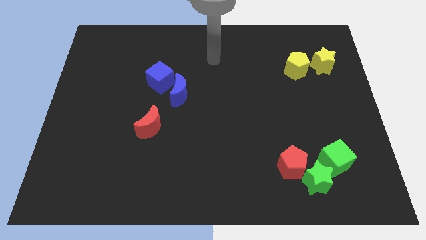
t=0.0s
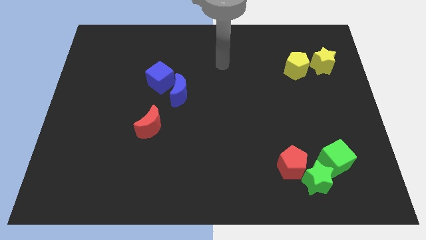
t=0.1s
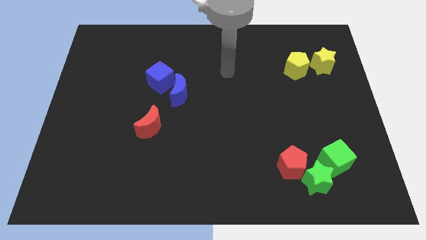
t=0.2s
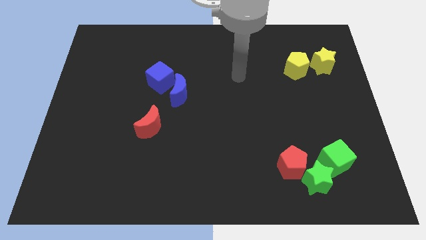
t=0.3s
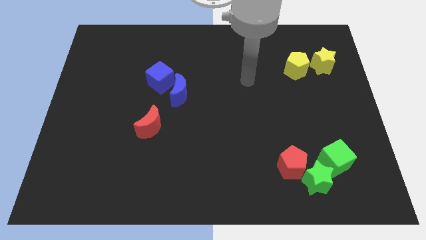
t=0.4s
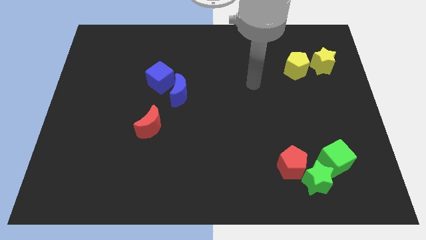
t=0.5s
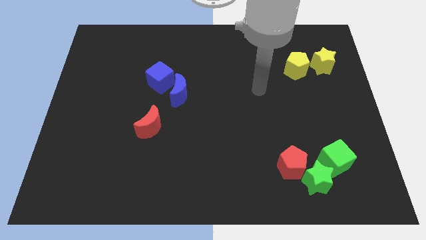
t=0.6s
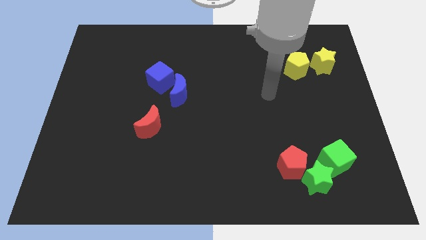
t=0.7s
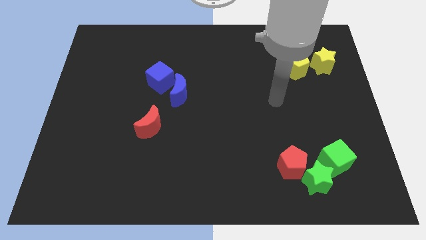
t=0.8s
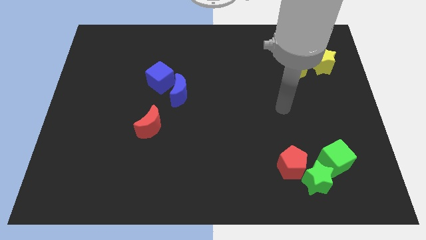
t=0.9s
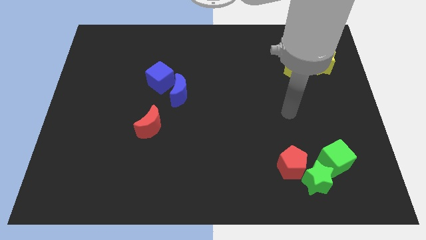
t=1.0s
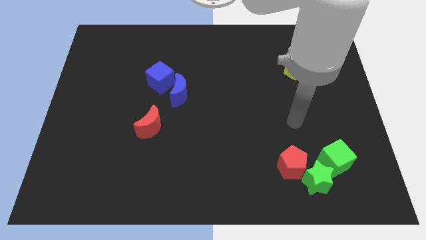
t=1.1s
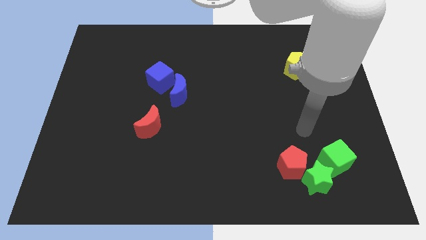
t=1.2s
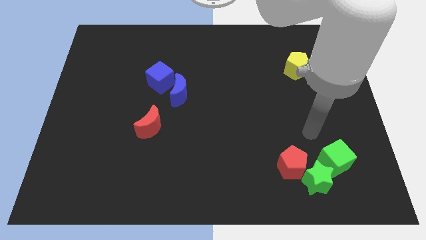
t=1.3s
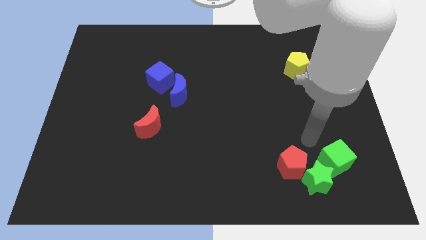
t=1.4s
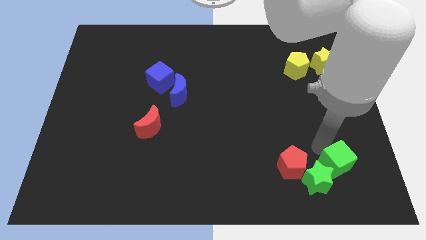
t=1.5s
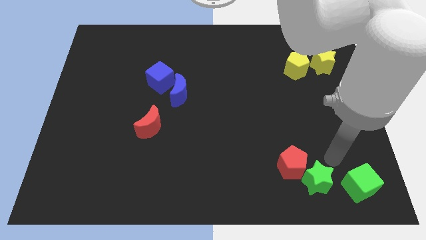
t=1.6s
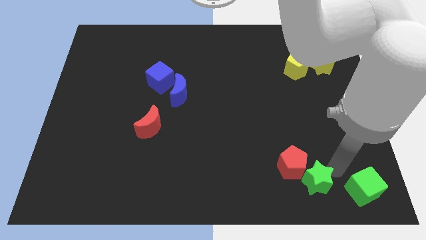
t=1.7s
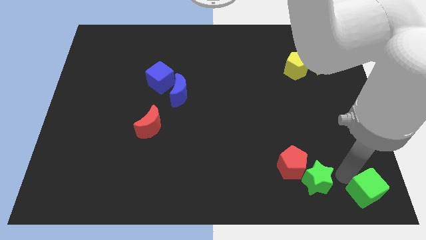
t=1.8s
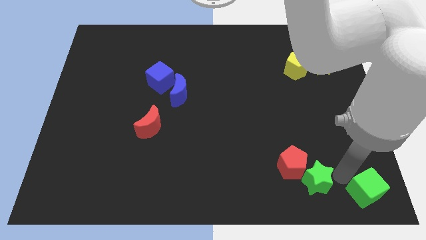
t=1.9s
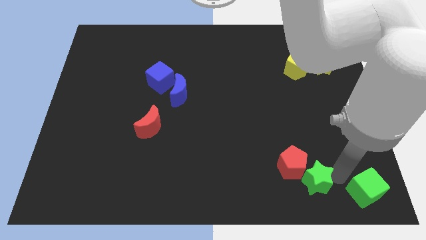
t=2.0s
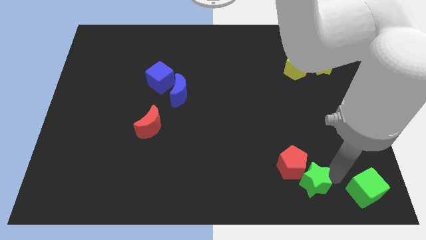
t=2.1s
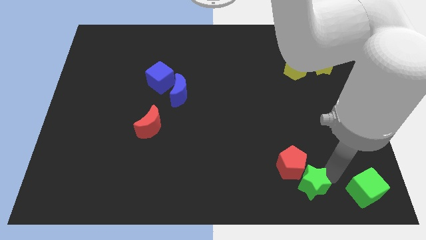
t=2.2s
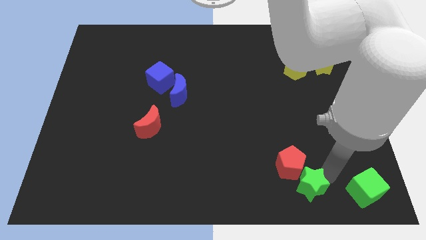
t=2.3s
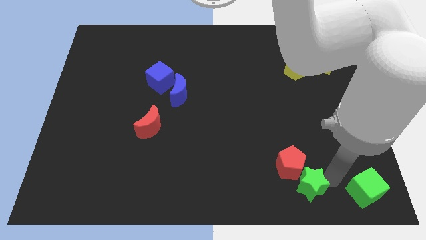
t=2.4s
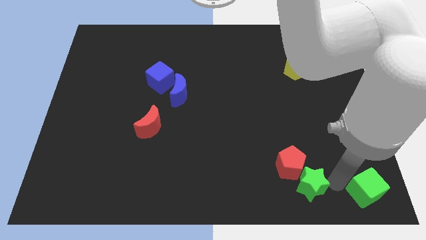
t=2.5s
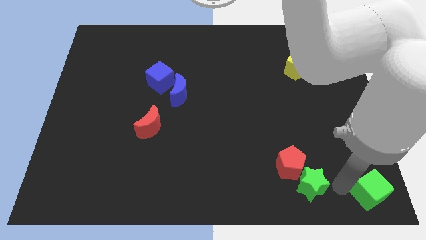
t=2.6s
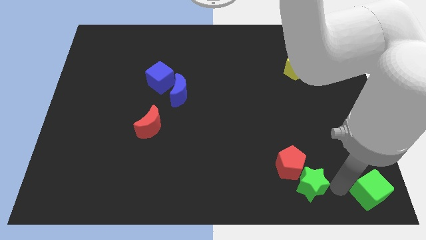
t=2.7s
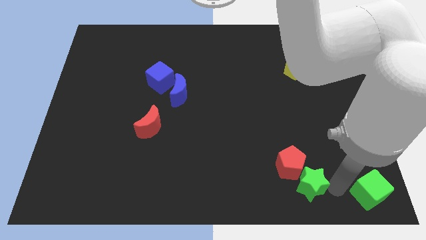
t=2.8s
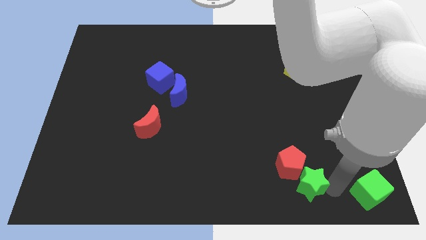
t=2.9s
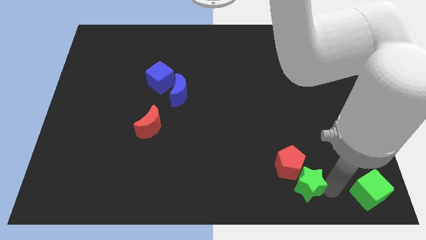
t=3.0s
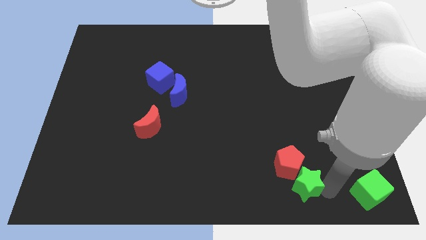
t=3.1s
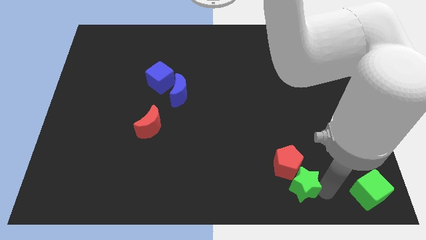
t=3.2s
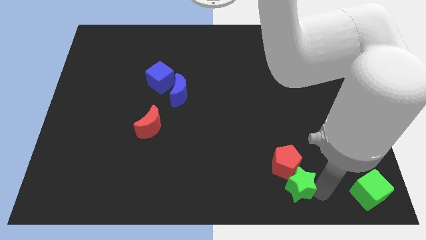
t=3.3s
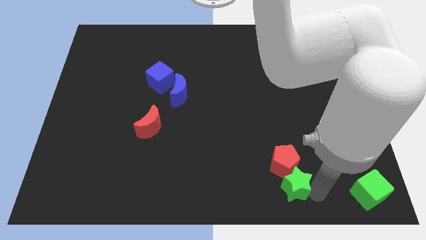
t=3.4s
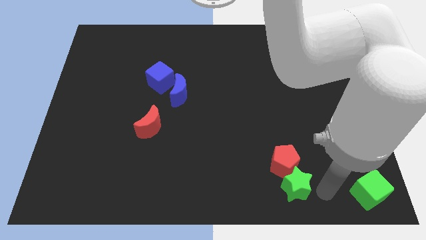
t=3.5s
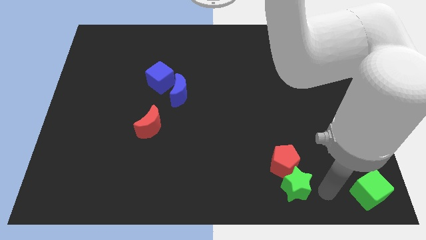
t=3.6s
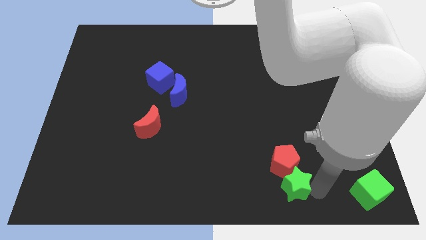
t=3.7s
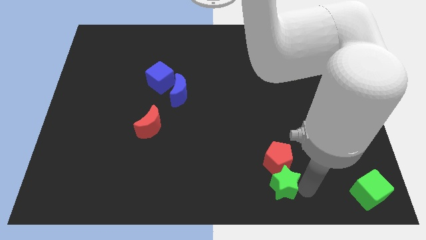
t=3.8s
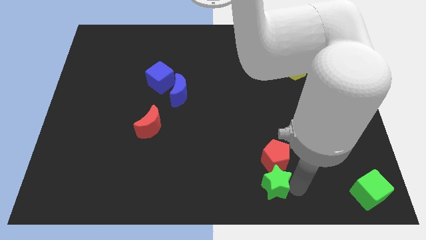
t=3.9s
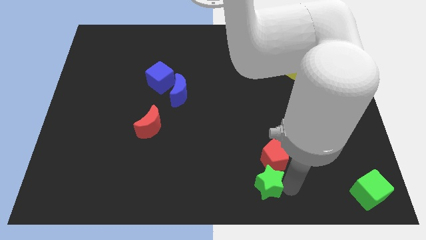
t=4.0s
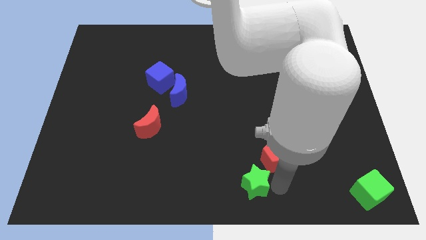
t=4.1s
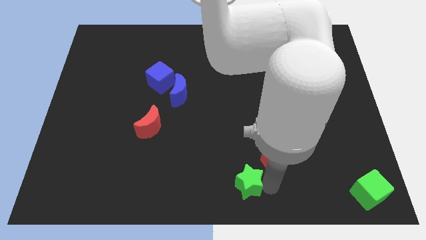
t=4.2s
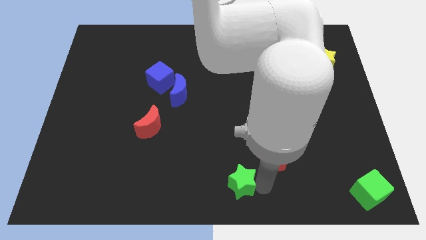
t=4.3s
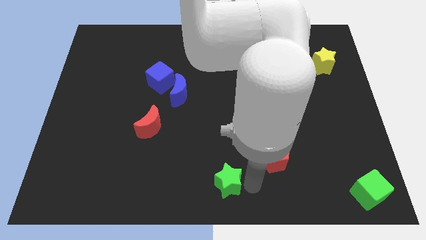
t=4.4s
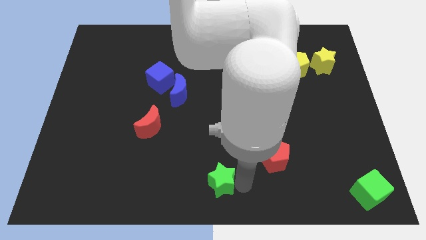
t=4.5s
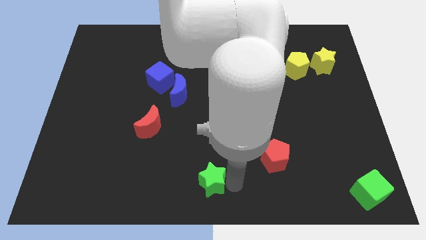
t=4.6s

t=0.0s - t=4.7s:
move the green star to the left

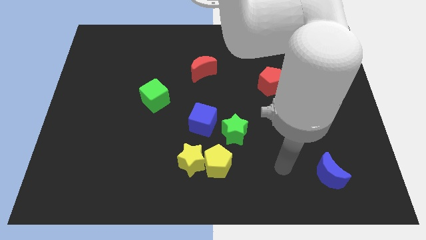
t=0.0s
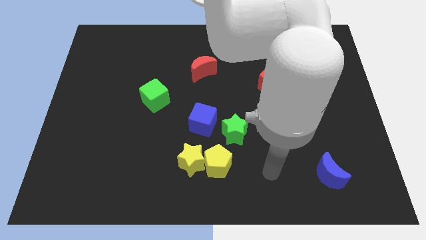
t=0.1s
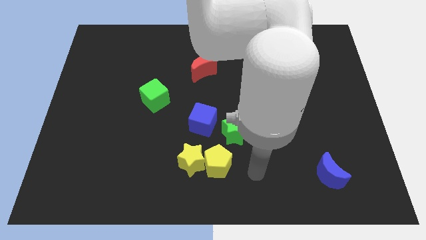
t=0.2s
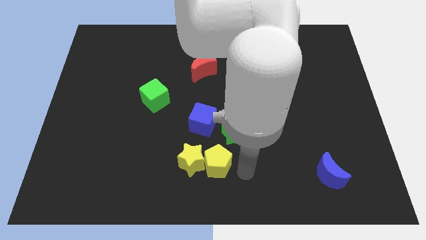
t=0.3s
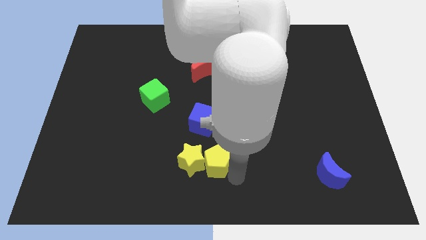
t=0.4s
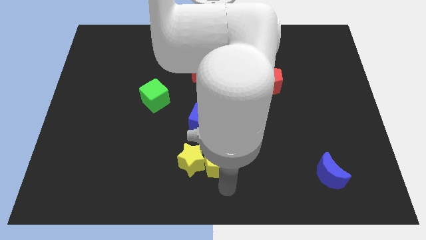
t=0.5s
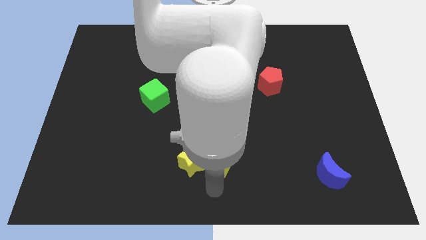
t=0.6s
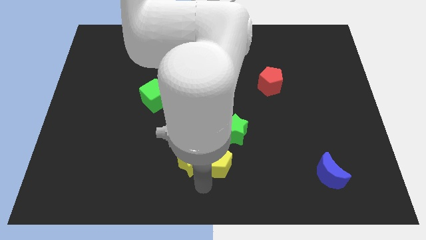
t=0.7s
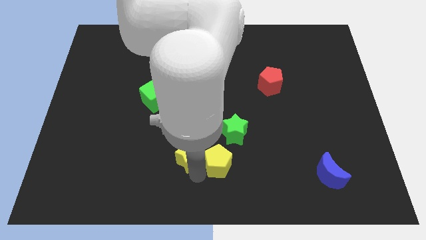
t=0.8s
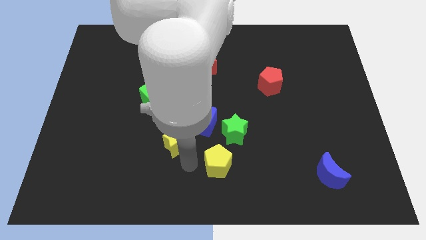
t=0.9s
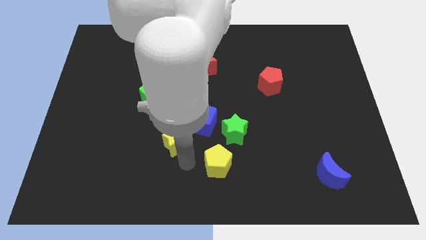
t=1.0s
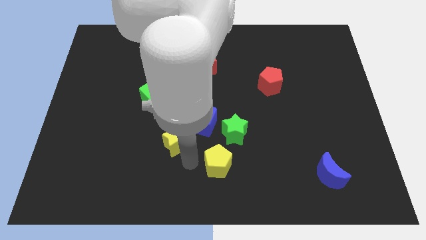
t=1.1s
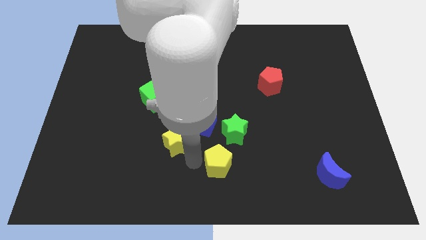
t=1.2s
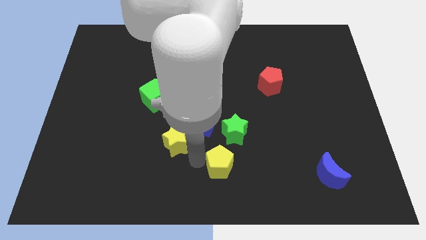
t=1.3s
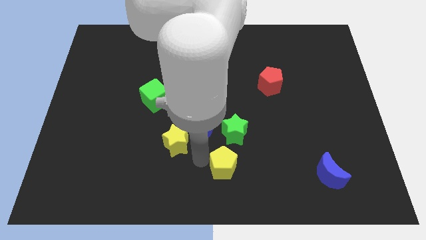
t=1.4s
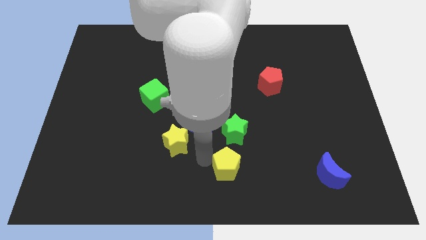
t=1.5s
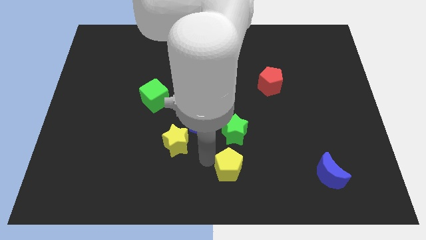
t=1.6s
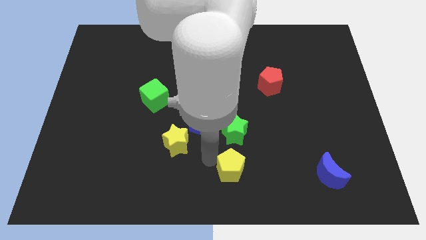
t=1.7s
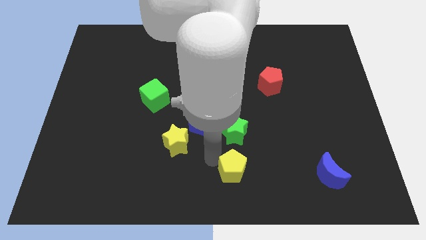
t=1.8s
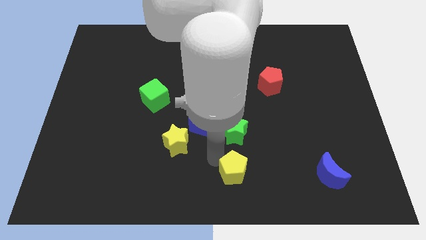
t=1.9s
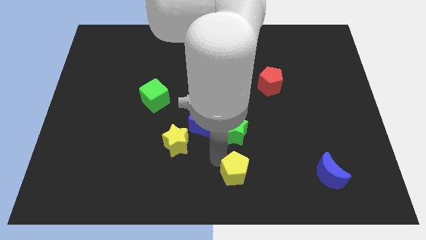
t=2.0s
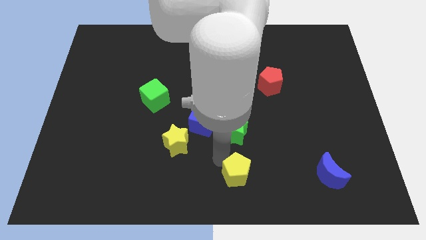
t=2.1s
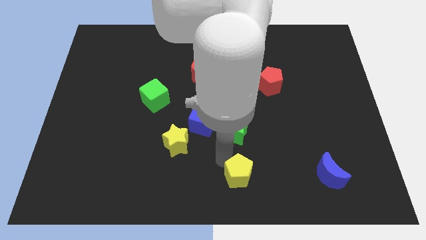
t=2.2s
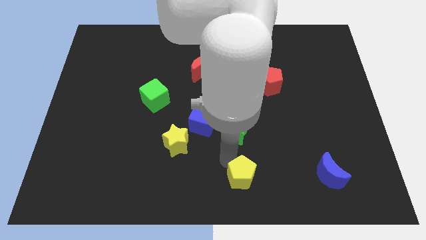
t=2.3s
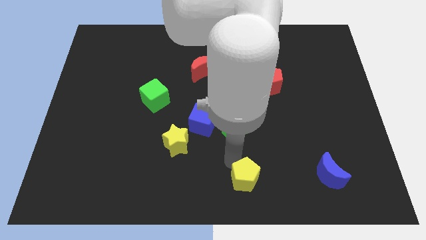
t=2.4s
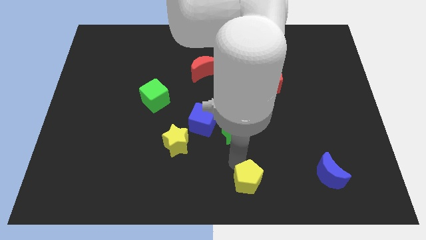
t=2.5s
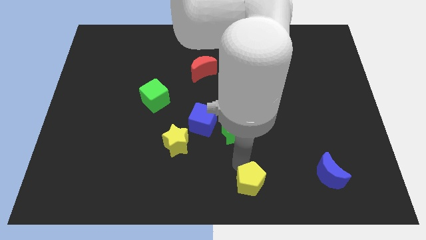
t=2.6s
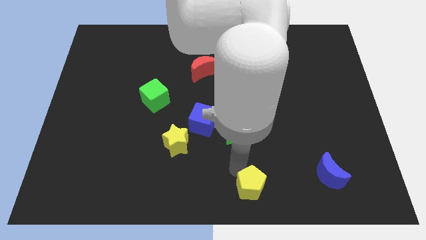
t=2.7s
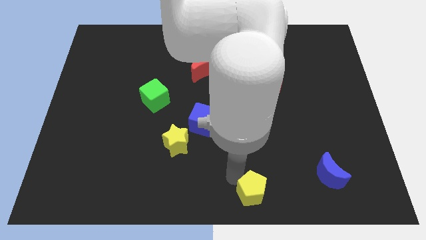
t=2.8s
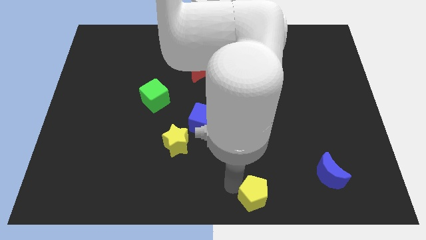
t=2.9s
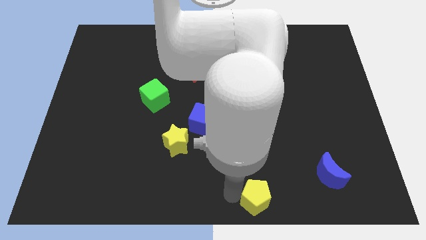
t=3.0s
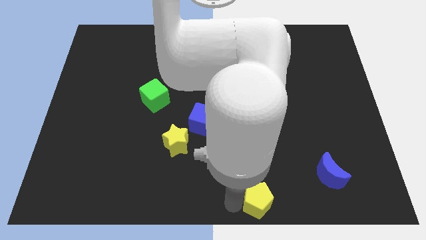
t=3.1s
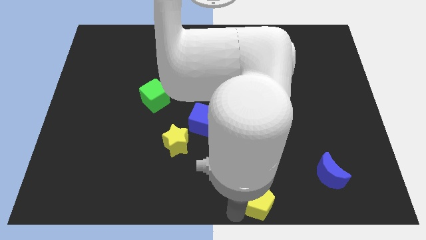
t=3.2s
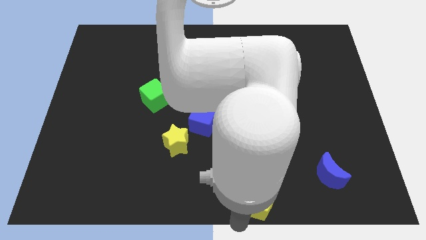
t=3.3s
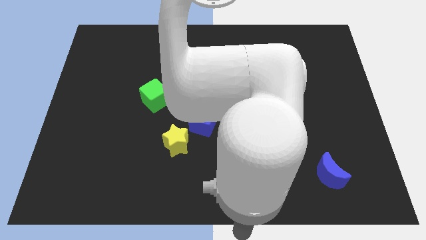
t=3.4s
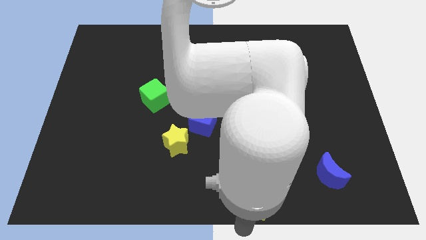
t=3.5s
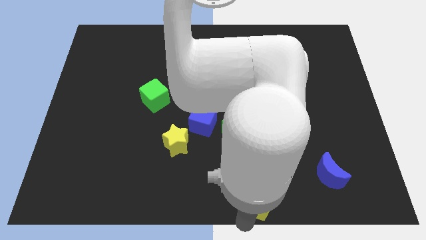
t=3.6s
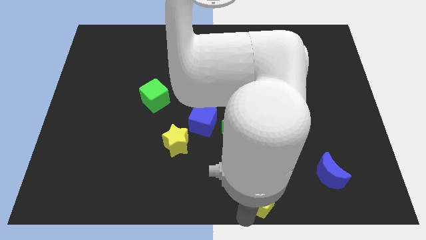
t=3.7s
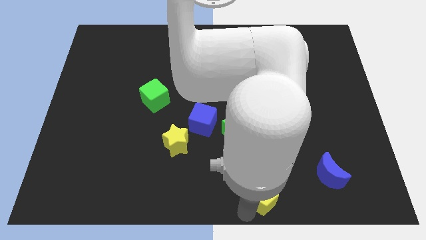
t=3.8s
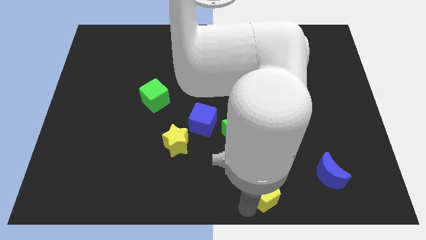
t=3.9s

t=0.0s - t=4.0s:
slightly push the yellow pentagon right
